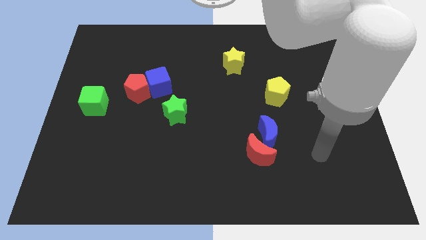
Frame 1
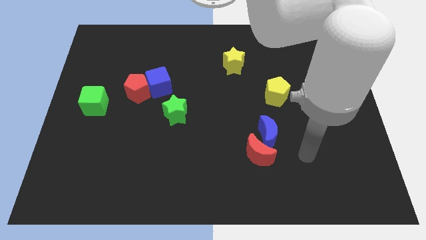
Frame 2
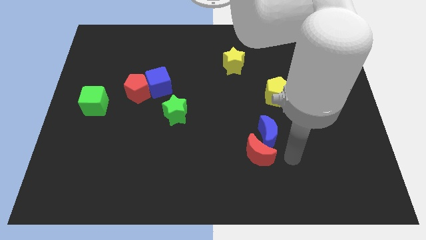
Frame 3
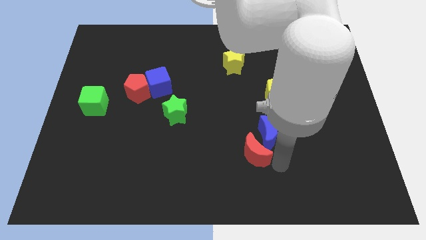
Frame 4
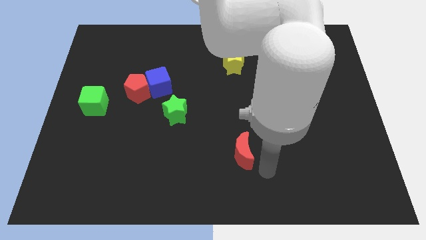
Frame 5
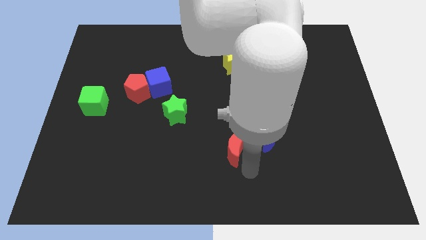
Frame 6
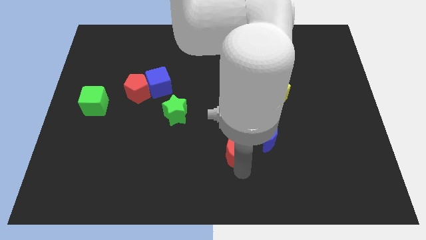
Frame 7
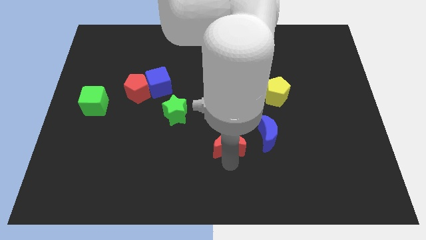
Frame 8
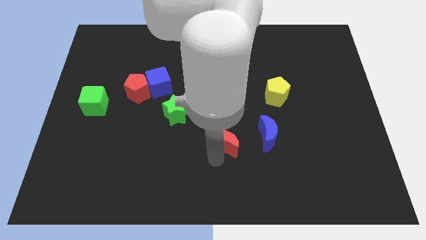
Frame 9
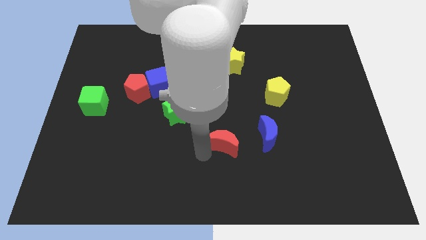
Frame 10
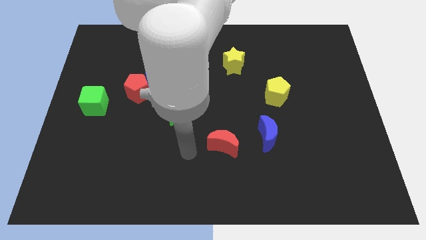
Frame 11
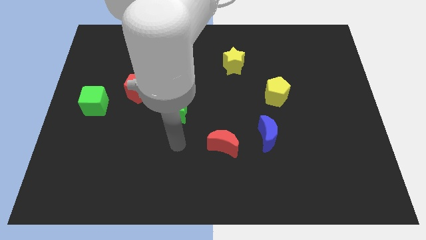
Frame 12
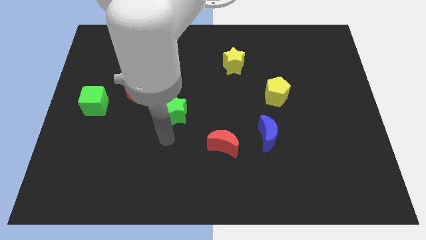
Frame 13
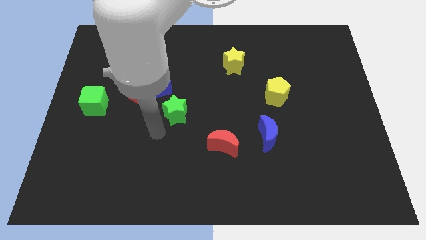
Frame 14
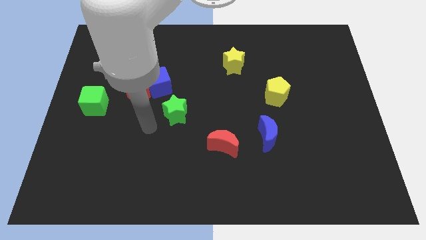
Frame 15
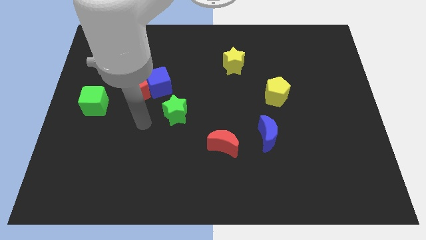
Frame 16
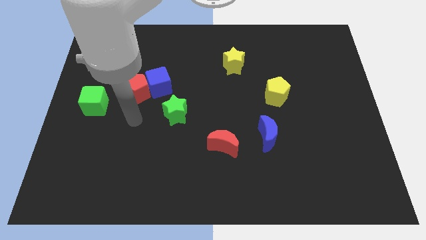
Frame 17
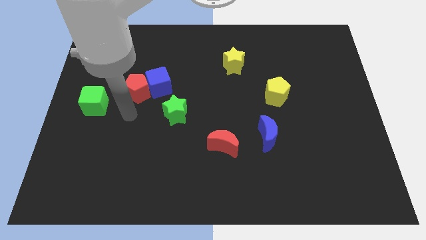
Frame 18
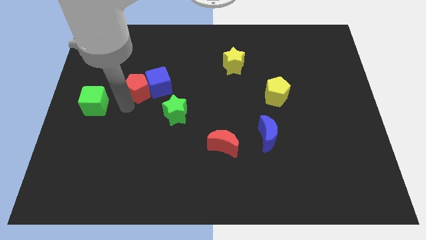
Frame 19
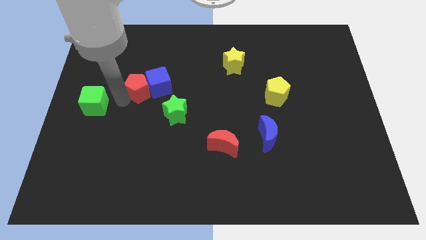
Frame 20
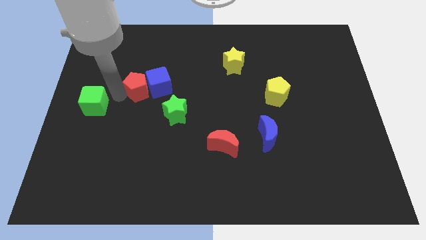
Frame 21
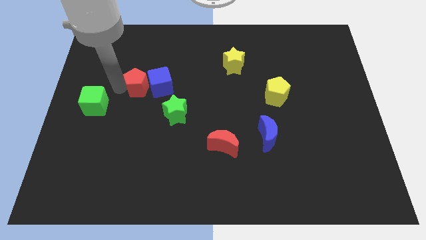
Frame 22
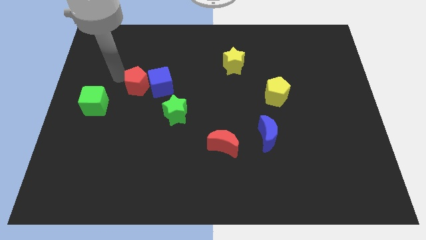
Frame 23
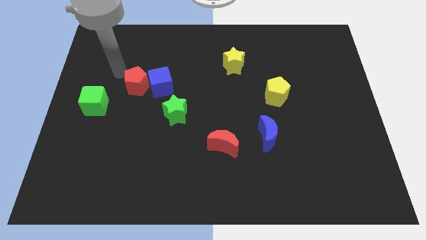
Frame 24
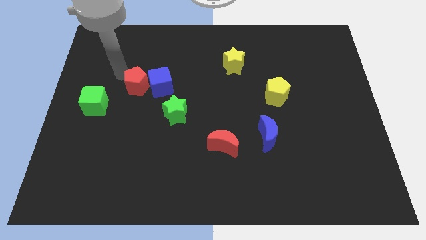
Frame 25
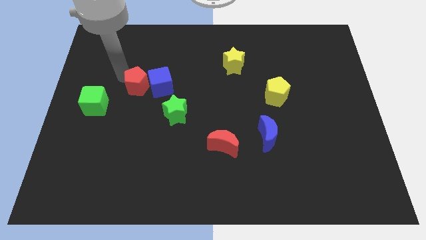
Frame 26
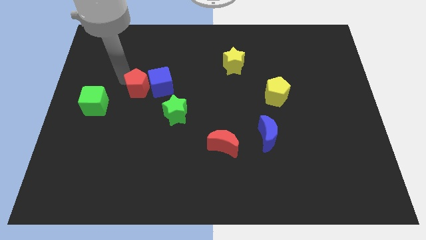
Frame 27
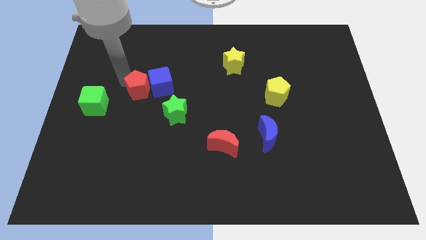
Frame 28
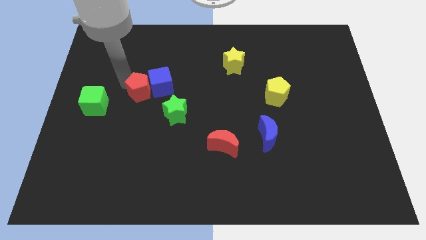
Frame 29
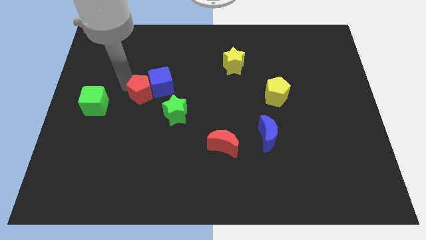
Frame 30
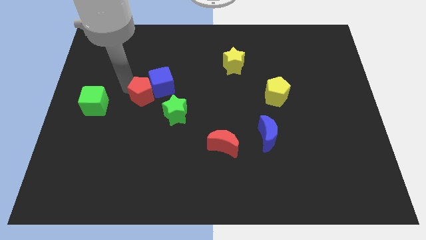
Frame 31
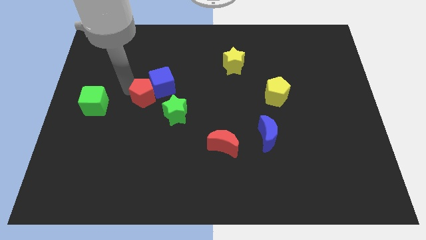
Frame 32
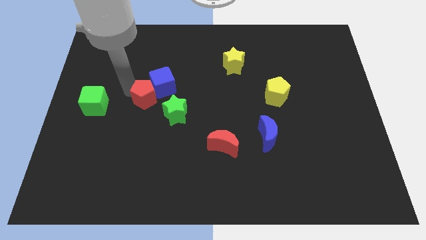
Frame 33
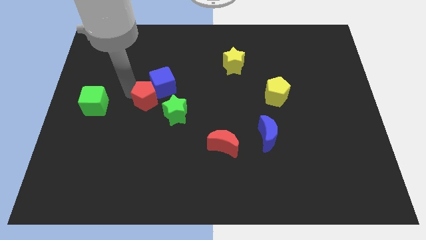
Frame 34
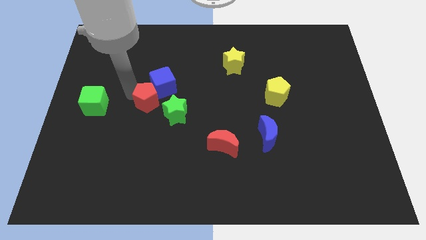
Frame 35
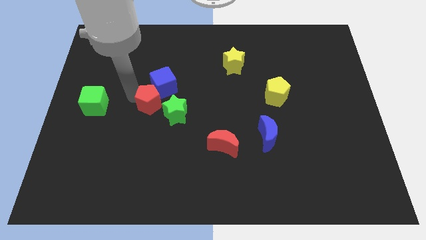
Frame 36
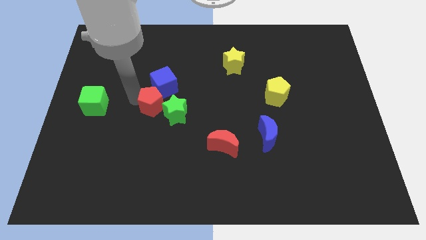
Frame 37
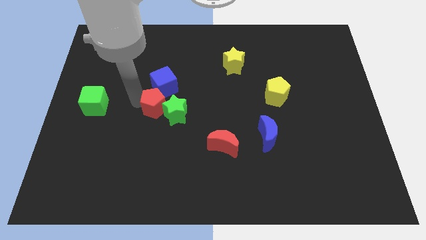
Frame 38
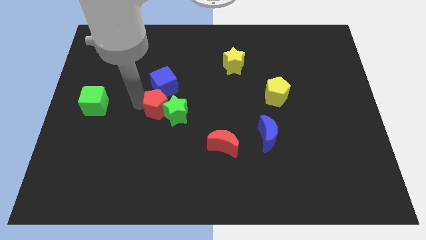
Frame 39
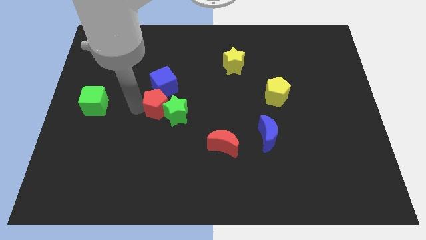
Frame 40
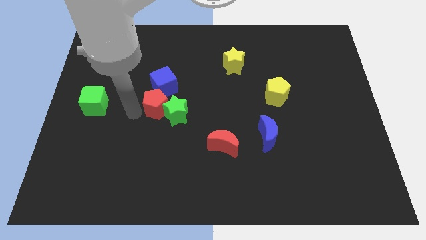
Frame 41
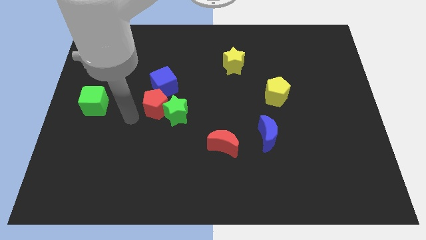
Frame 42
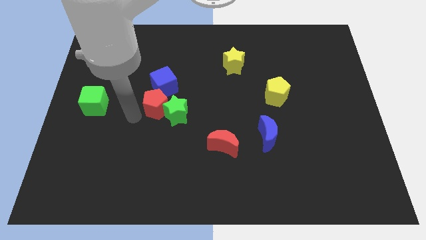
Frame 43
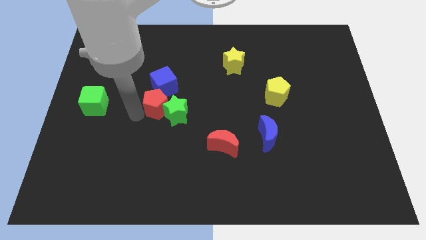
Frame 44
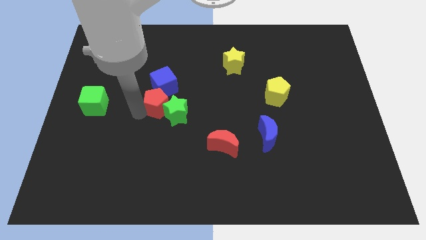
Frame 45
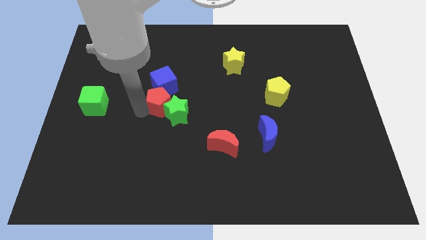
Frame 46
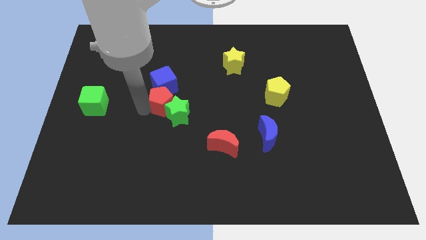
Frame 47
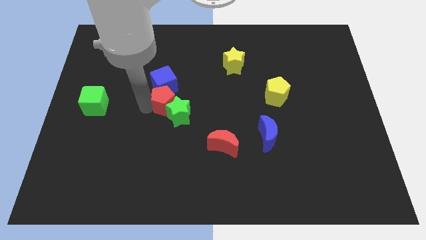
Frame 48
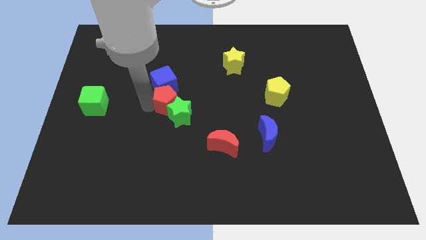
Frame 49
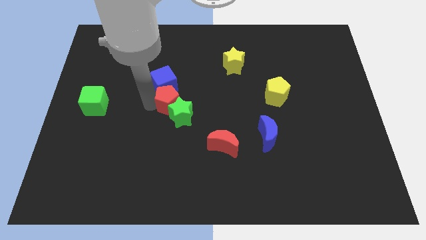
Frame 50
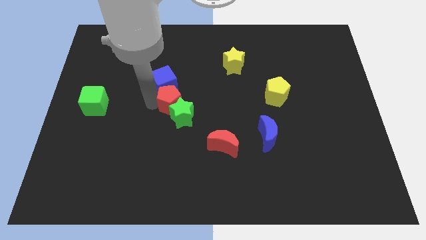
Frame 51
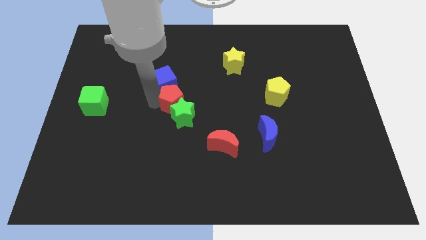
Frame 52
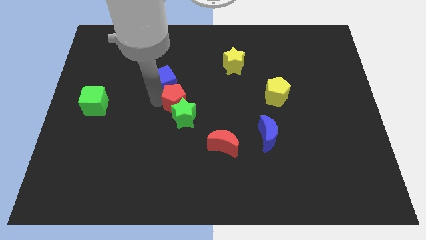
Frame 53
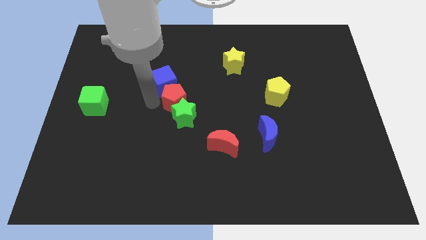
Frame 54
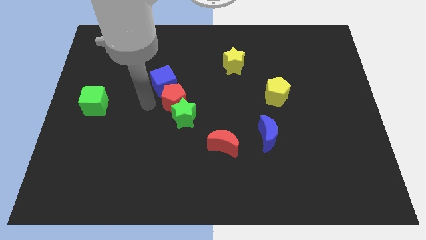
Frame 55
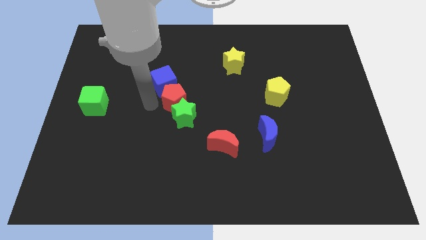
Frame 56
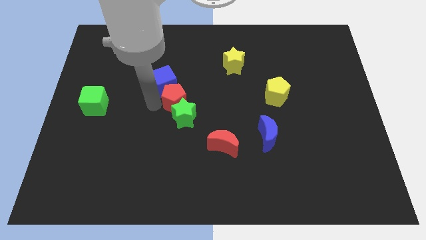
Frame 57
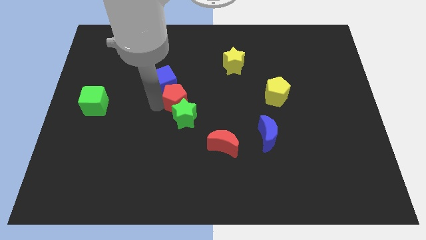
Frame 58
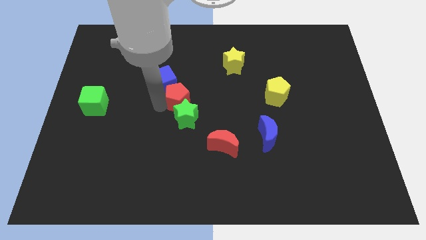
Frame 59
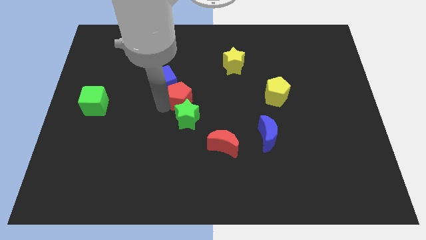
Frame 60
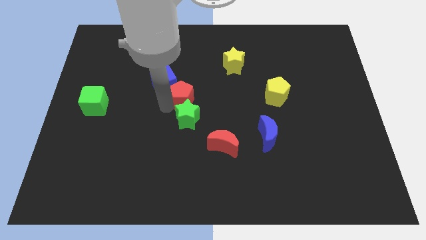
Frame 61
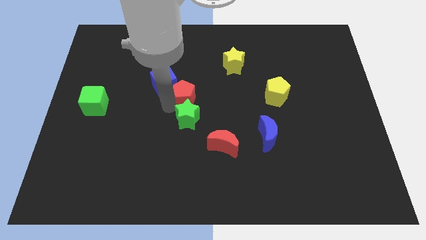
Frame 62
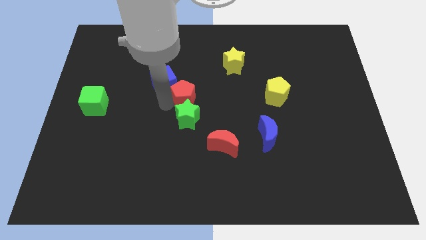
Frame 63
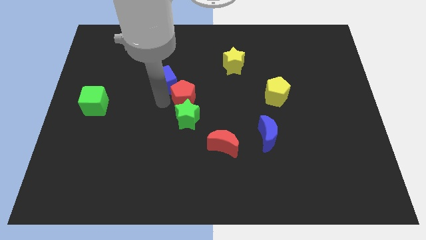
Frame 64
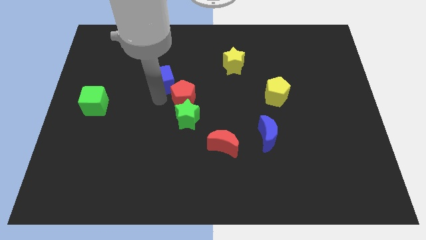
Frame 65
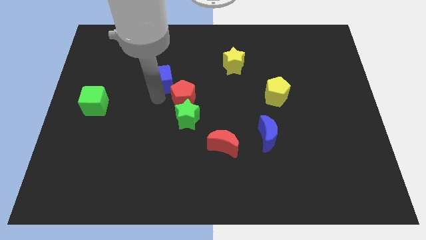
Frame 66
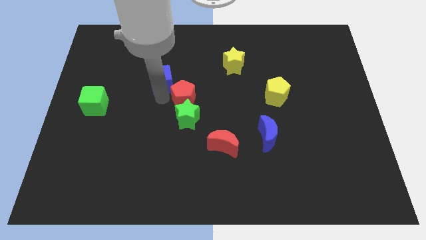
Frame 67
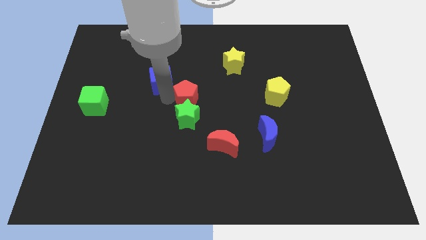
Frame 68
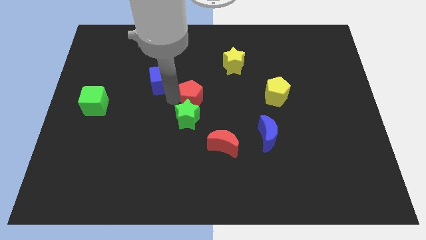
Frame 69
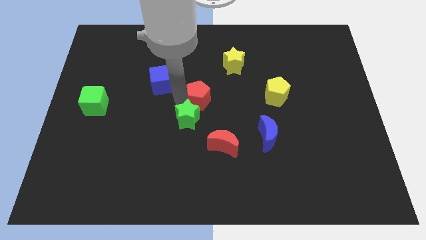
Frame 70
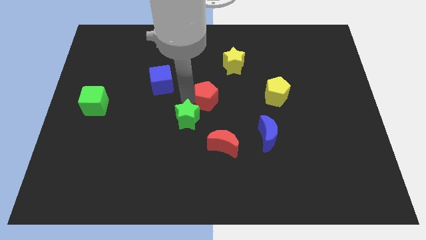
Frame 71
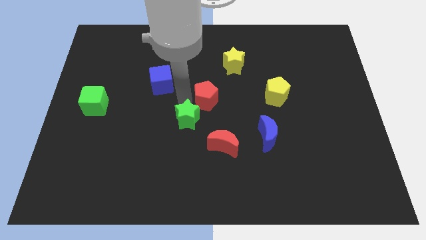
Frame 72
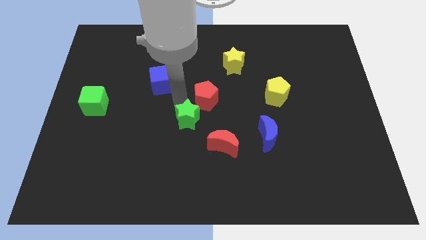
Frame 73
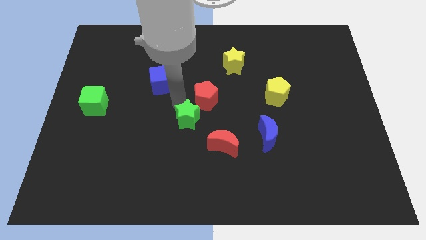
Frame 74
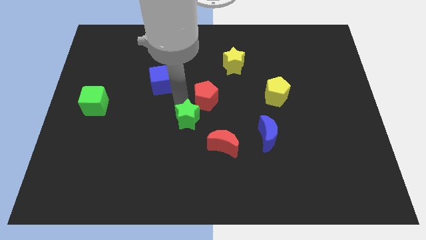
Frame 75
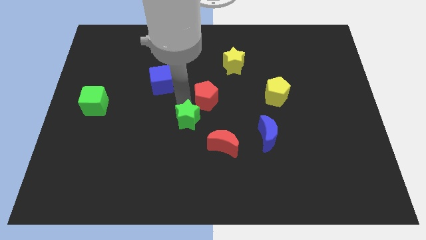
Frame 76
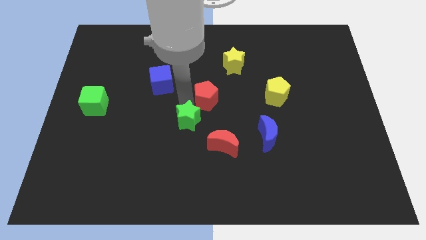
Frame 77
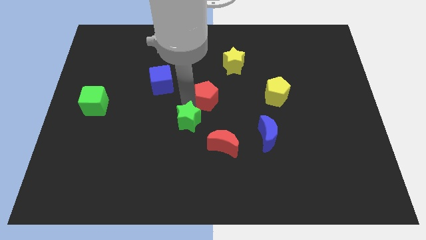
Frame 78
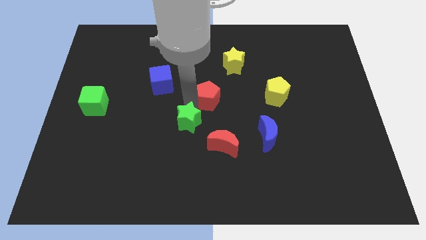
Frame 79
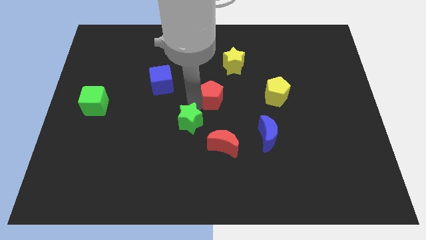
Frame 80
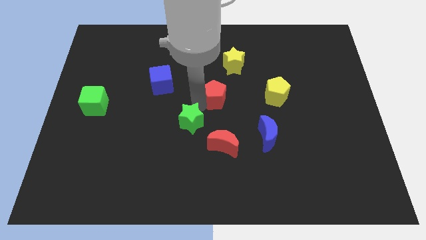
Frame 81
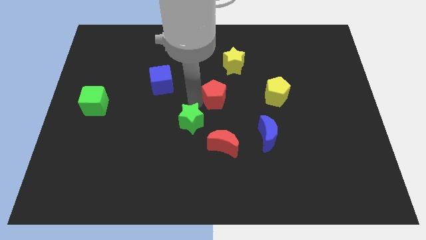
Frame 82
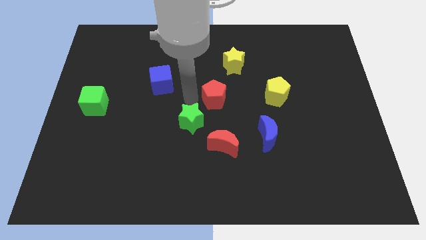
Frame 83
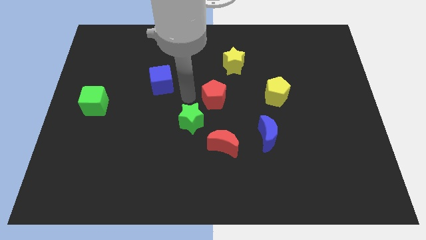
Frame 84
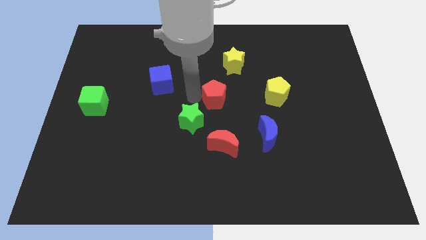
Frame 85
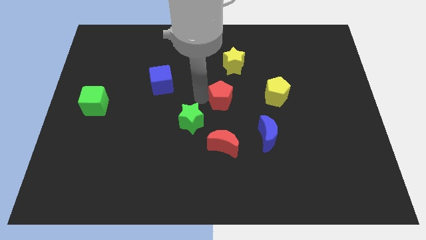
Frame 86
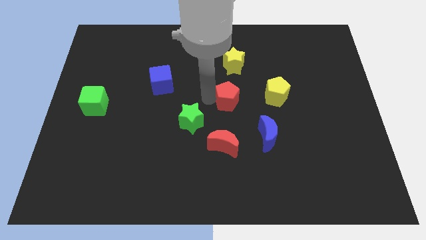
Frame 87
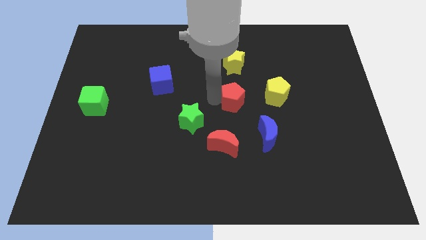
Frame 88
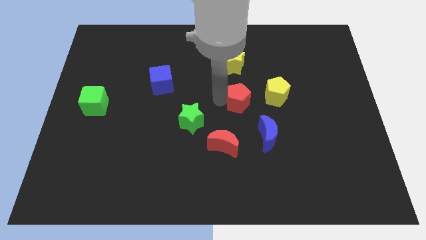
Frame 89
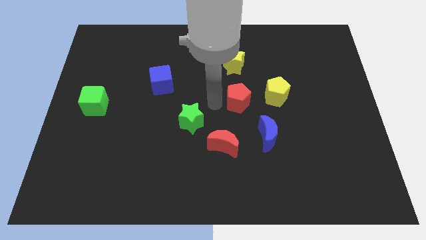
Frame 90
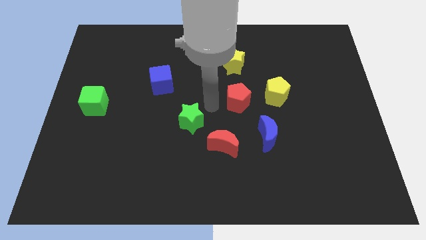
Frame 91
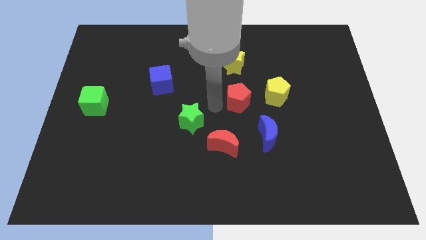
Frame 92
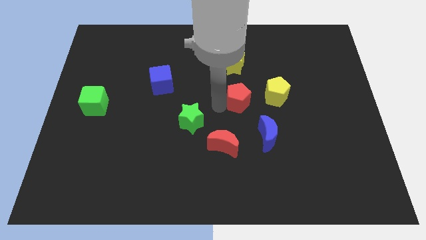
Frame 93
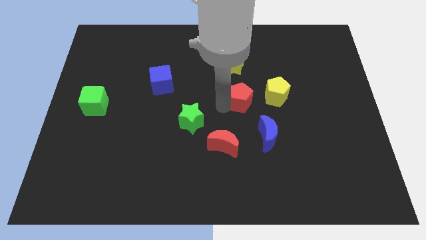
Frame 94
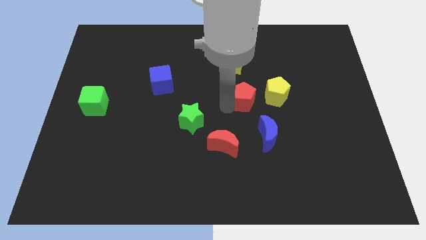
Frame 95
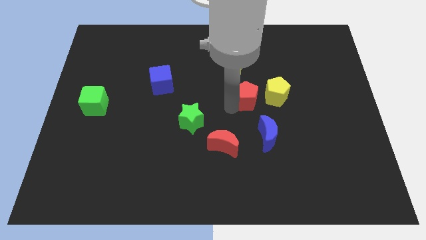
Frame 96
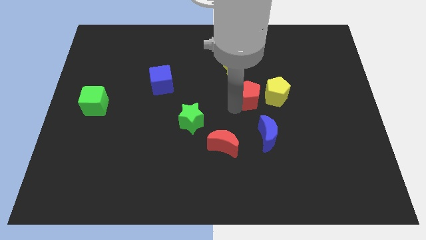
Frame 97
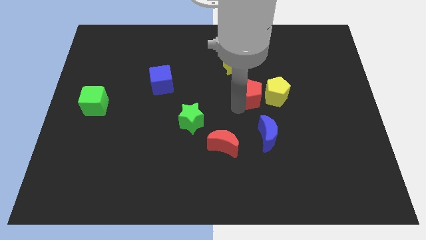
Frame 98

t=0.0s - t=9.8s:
put the red pentagon towards the yellow pentagon
